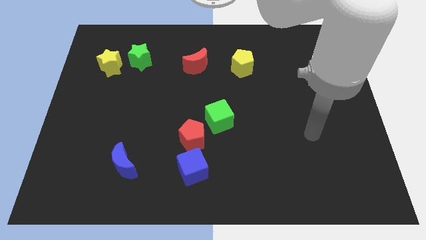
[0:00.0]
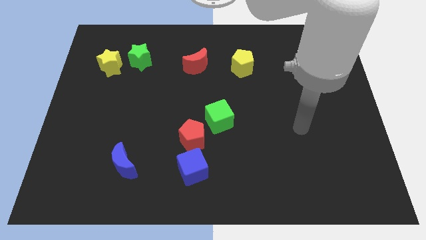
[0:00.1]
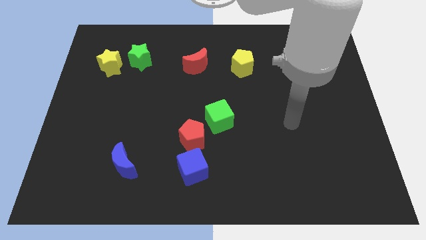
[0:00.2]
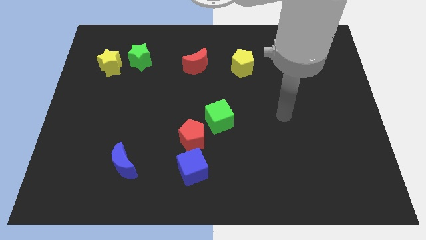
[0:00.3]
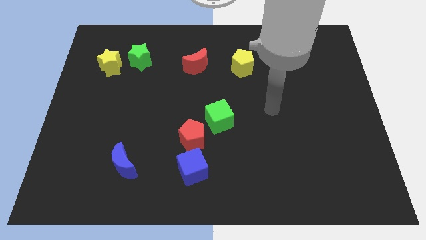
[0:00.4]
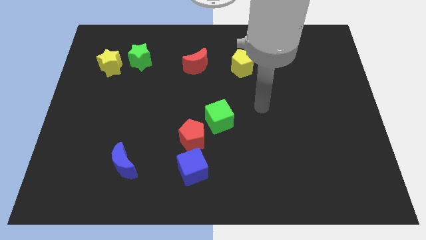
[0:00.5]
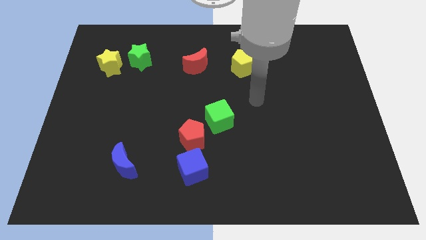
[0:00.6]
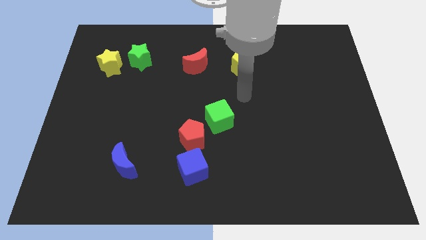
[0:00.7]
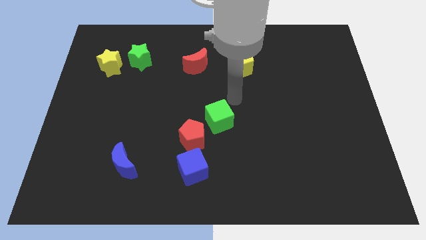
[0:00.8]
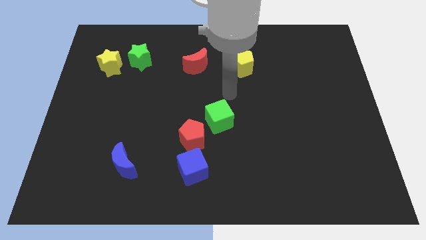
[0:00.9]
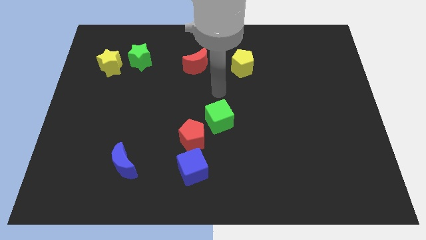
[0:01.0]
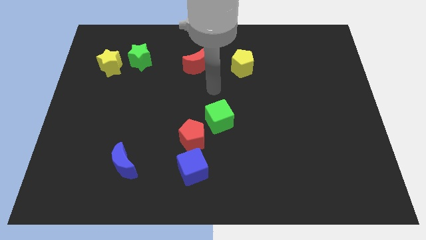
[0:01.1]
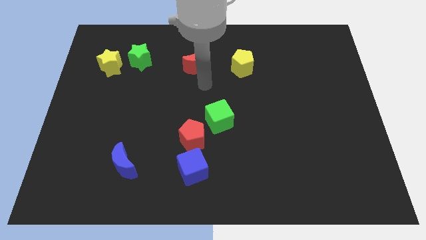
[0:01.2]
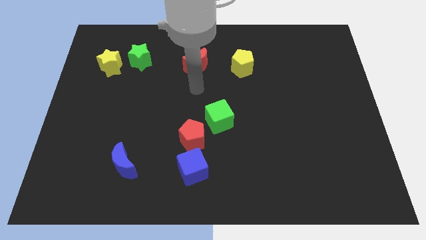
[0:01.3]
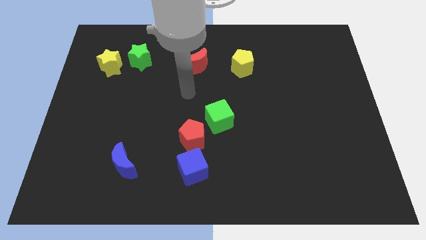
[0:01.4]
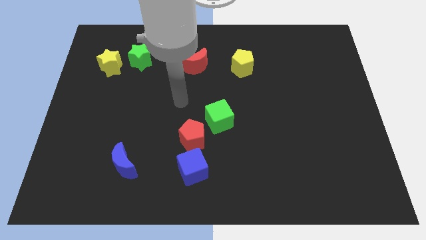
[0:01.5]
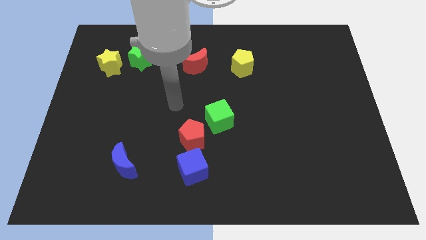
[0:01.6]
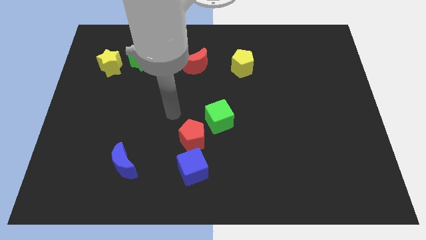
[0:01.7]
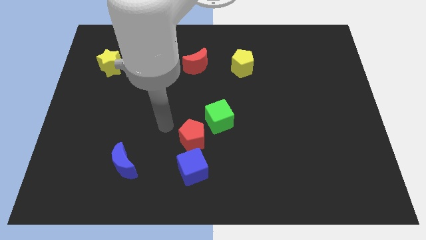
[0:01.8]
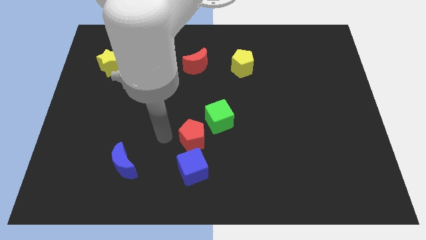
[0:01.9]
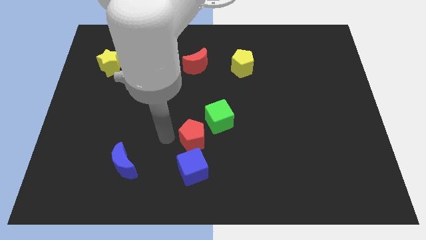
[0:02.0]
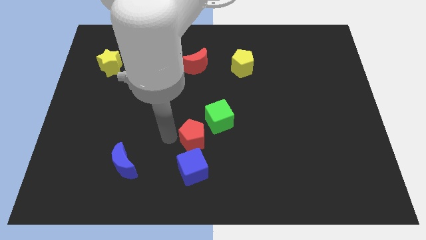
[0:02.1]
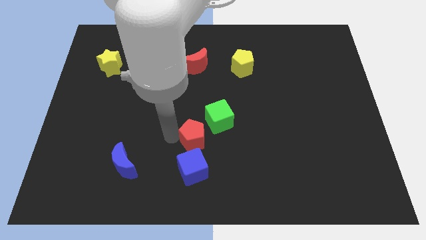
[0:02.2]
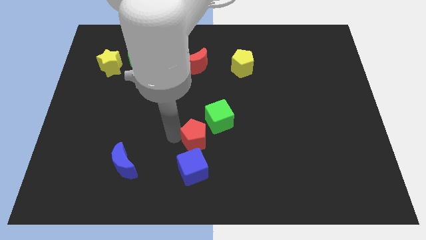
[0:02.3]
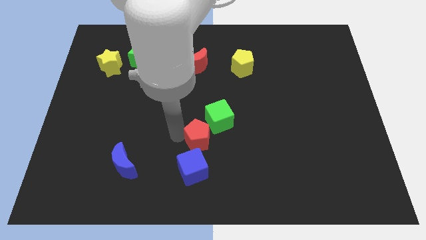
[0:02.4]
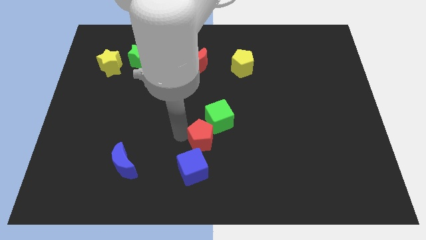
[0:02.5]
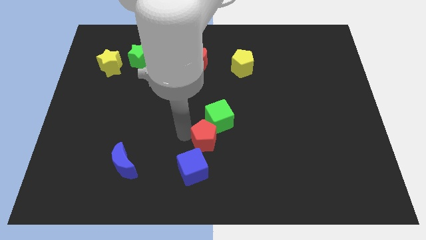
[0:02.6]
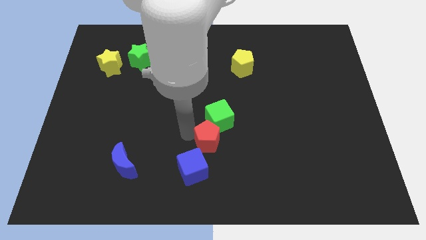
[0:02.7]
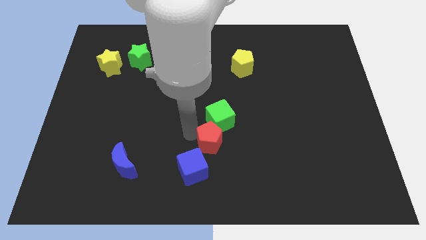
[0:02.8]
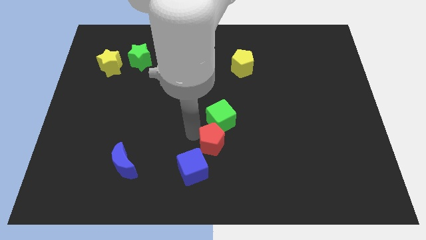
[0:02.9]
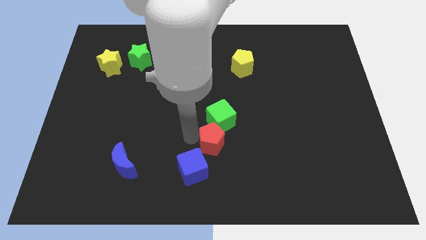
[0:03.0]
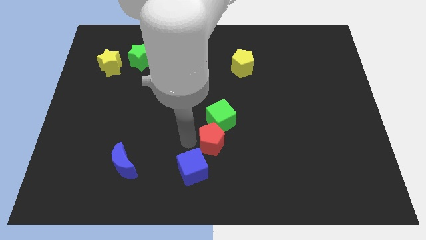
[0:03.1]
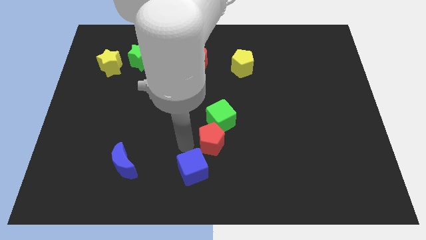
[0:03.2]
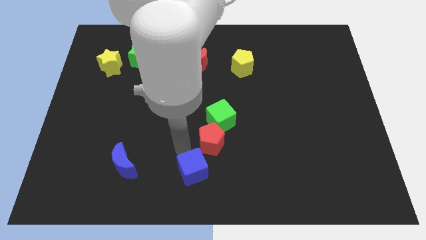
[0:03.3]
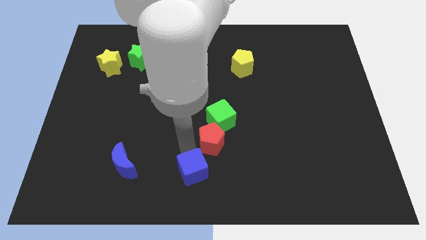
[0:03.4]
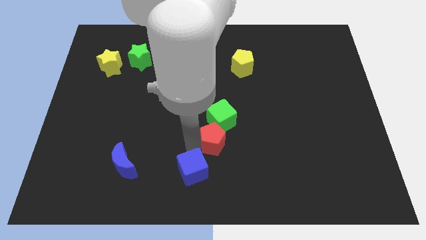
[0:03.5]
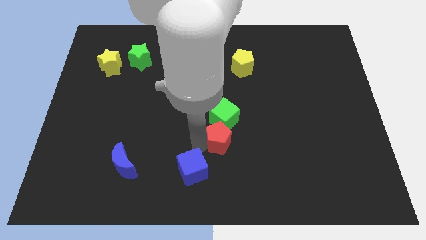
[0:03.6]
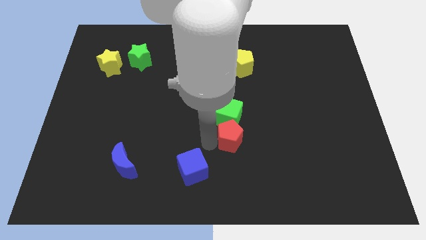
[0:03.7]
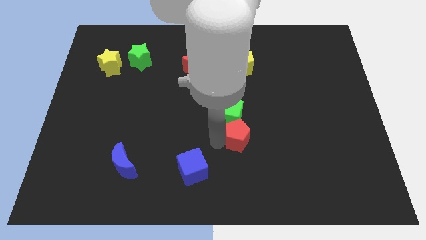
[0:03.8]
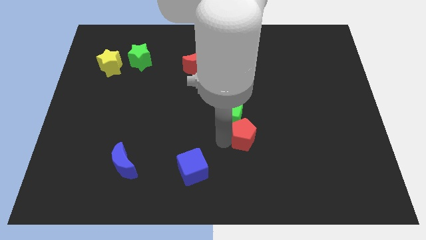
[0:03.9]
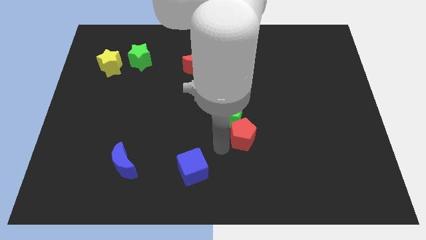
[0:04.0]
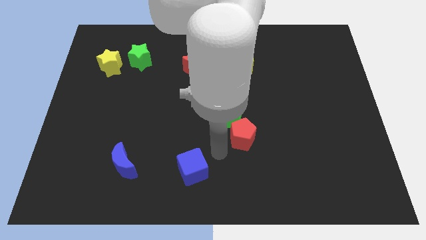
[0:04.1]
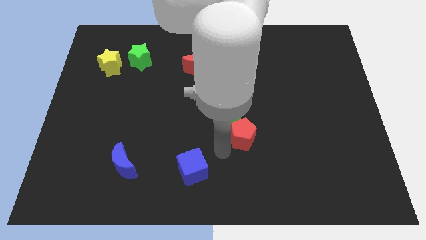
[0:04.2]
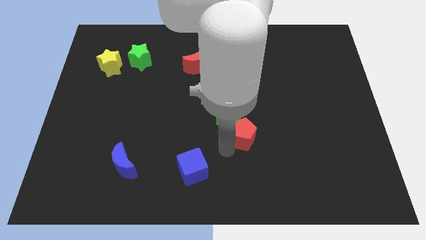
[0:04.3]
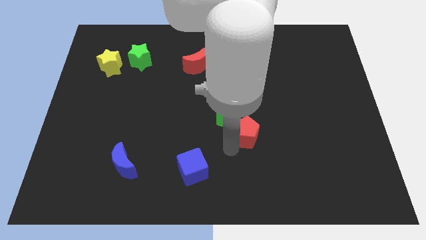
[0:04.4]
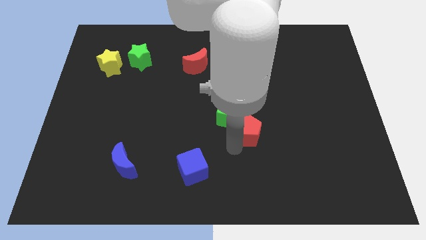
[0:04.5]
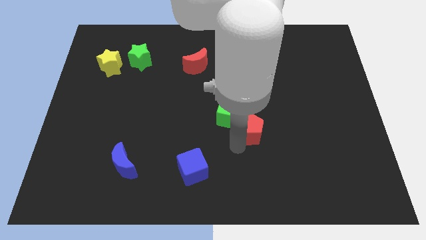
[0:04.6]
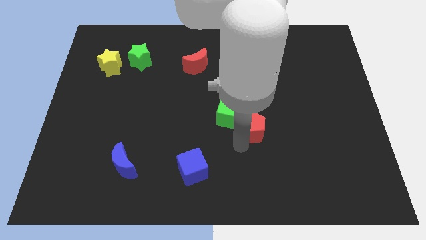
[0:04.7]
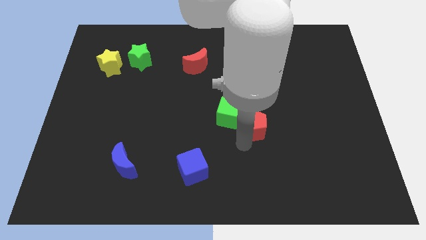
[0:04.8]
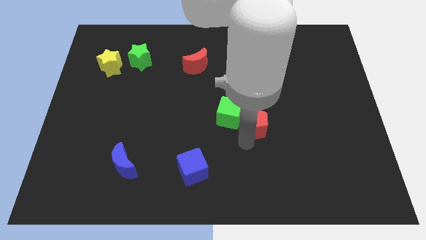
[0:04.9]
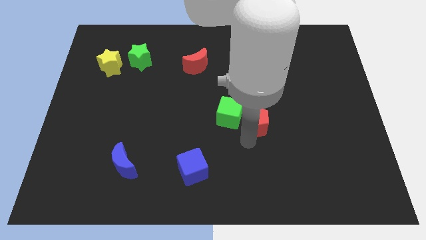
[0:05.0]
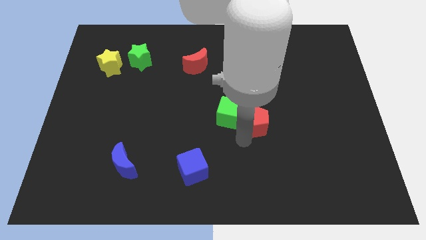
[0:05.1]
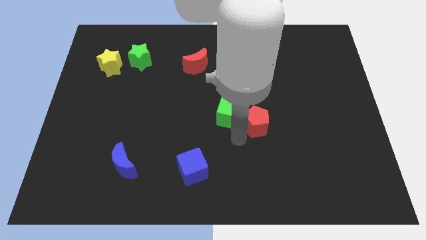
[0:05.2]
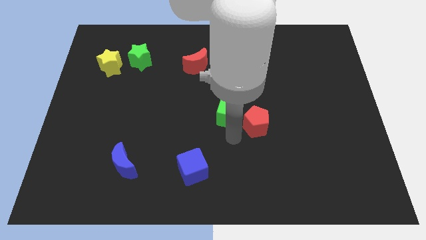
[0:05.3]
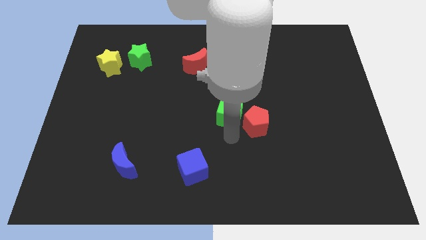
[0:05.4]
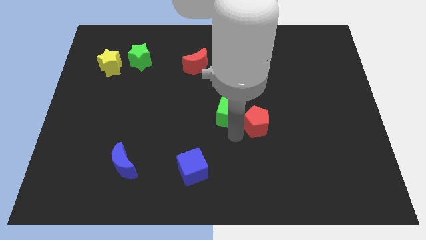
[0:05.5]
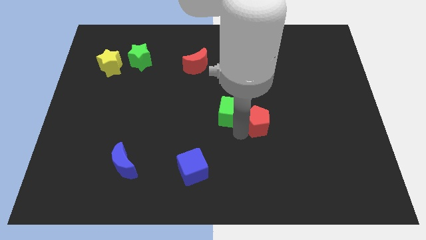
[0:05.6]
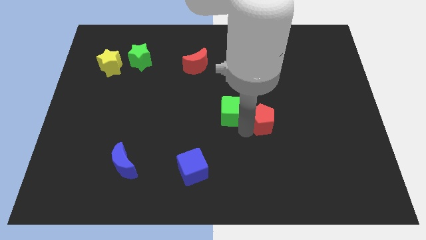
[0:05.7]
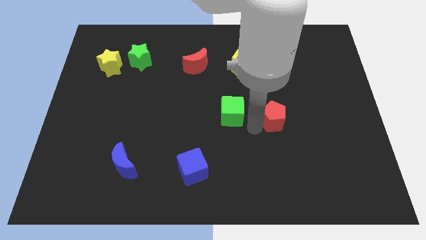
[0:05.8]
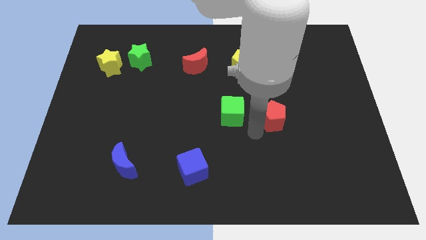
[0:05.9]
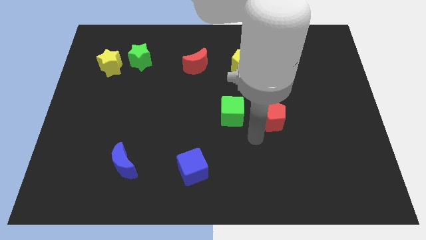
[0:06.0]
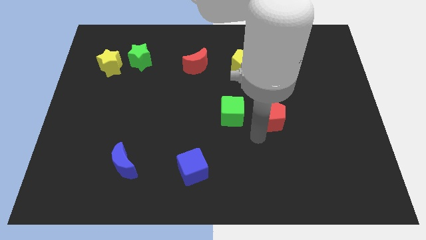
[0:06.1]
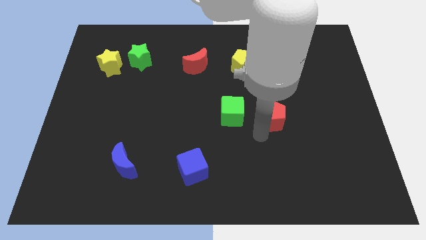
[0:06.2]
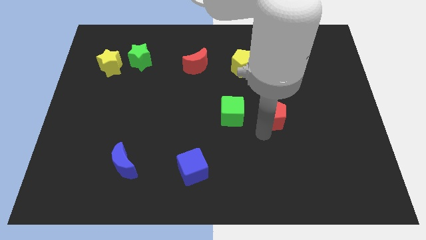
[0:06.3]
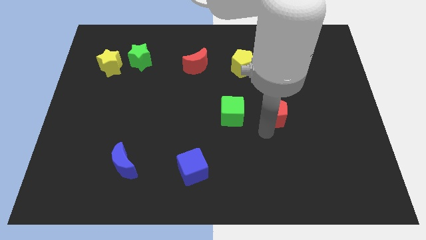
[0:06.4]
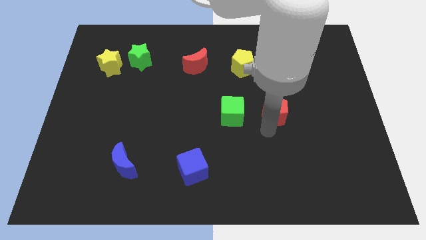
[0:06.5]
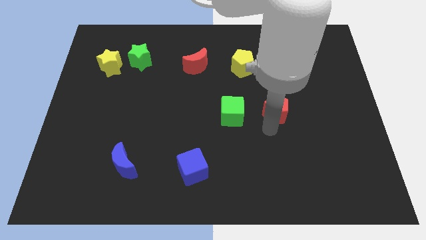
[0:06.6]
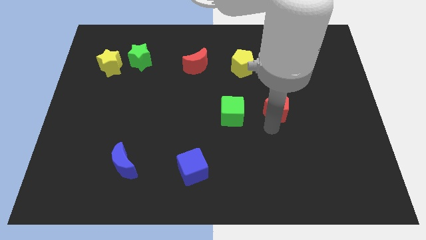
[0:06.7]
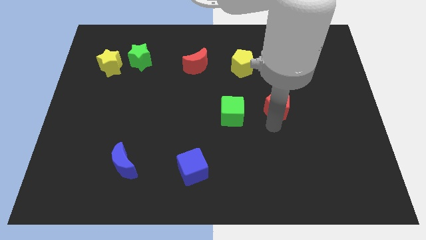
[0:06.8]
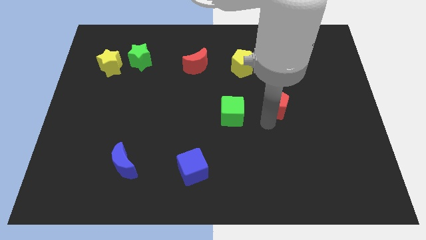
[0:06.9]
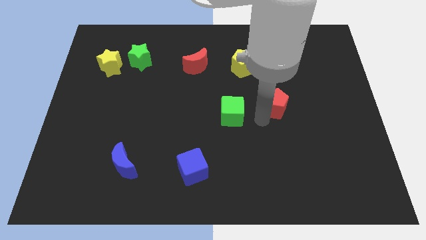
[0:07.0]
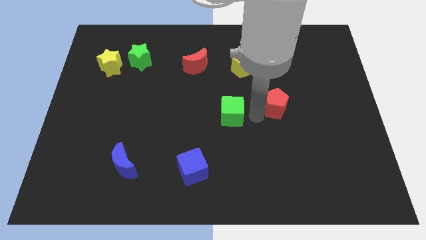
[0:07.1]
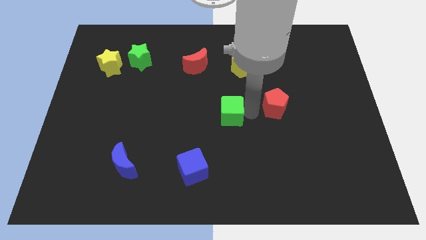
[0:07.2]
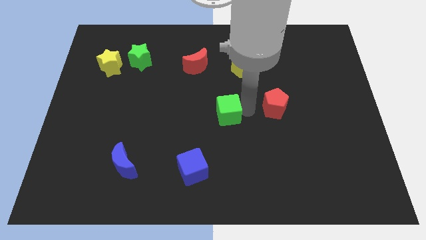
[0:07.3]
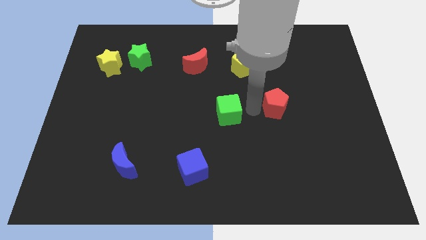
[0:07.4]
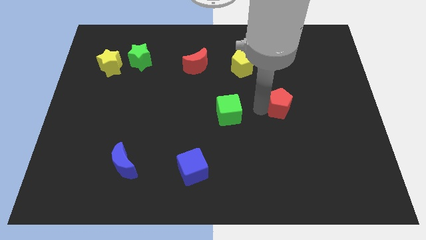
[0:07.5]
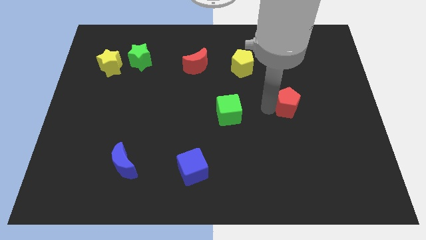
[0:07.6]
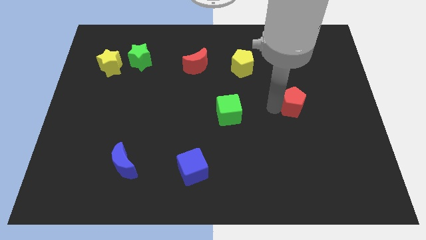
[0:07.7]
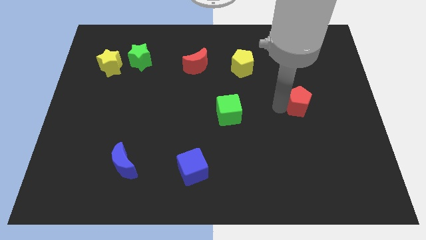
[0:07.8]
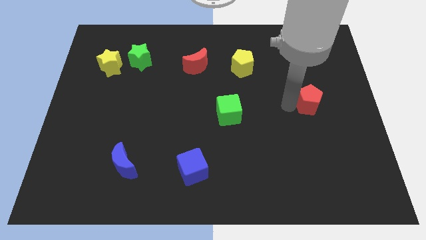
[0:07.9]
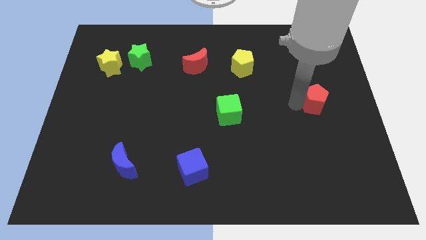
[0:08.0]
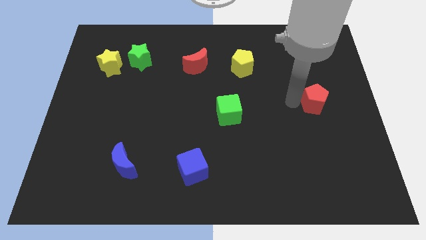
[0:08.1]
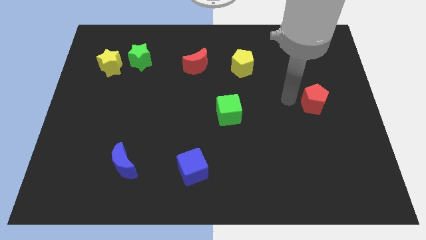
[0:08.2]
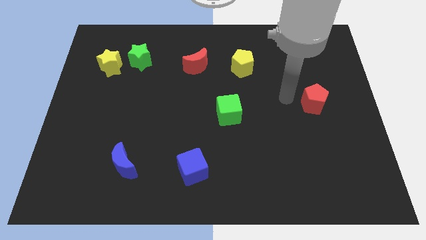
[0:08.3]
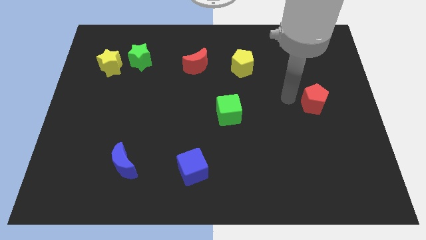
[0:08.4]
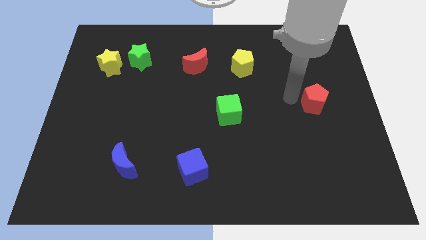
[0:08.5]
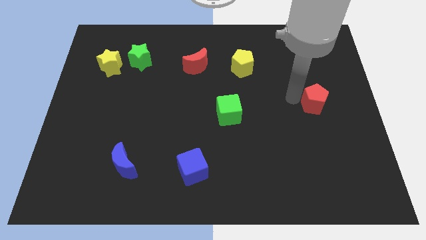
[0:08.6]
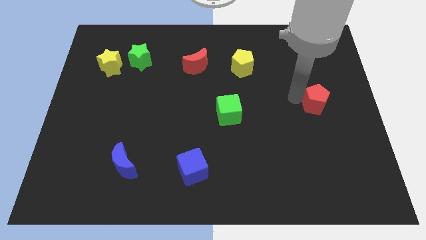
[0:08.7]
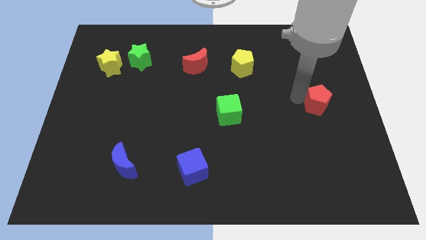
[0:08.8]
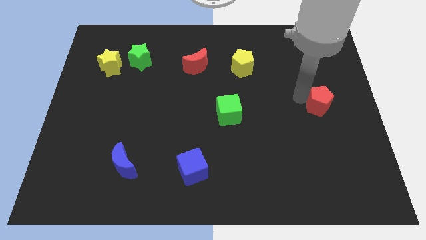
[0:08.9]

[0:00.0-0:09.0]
move the red pentagon to the right side
